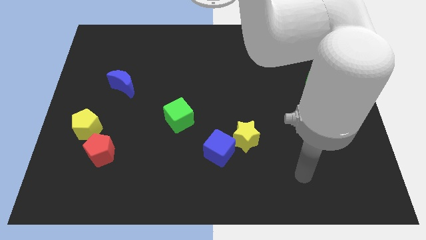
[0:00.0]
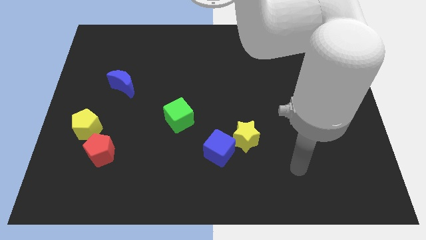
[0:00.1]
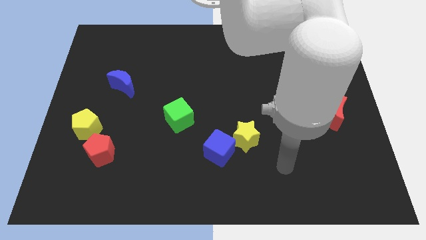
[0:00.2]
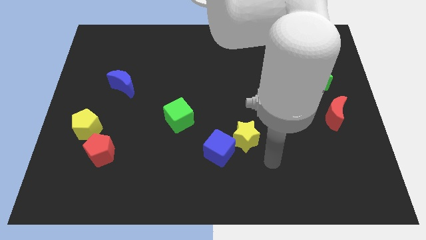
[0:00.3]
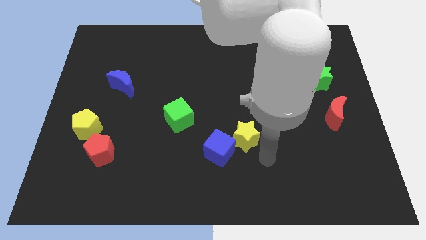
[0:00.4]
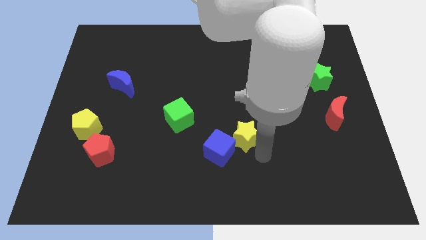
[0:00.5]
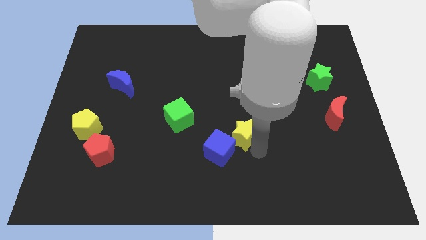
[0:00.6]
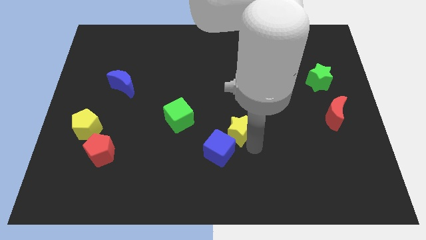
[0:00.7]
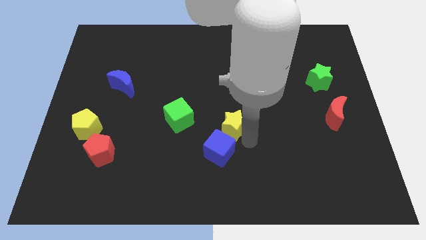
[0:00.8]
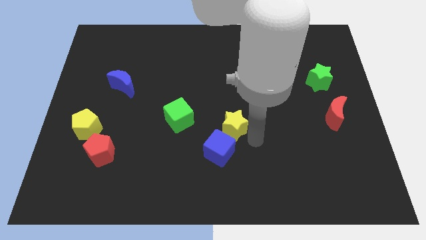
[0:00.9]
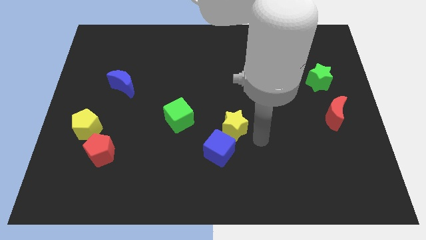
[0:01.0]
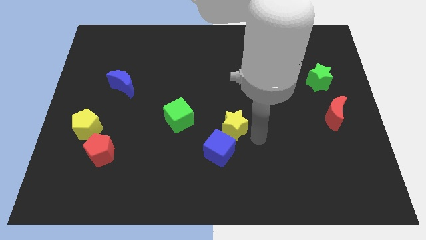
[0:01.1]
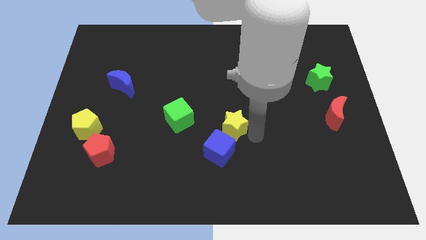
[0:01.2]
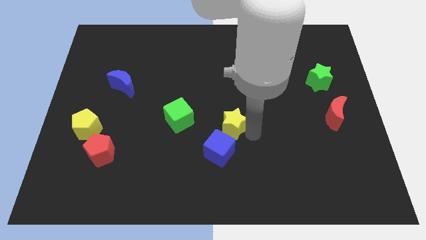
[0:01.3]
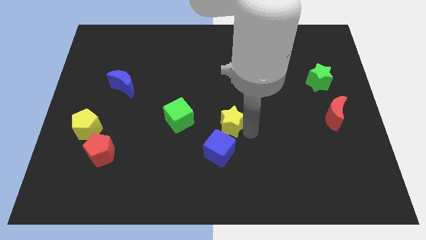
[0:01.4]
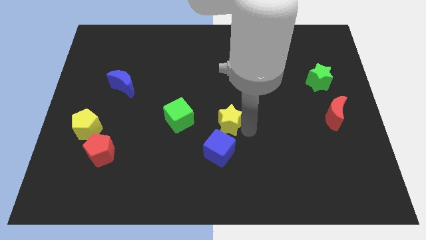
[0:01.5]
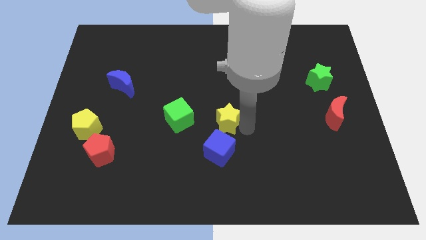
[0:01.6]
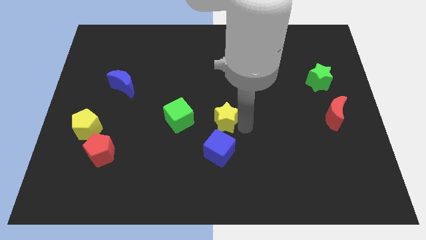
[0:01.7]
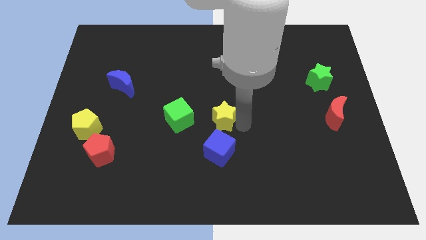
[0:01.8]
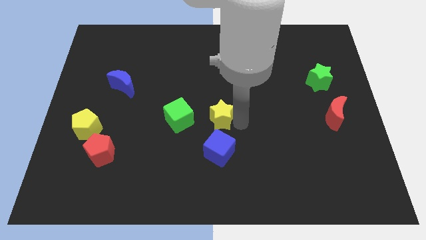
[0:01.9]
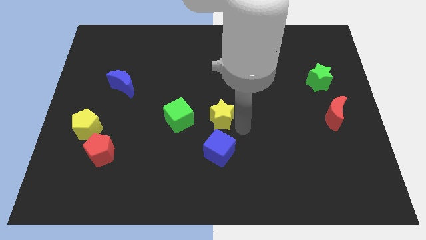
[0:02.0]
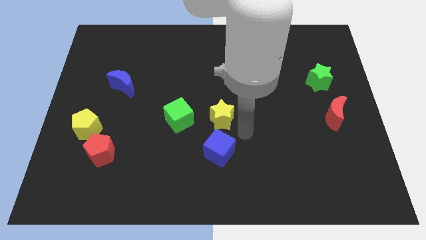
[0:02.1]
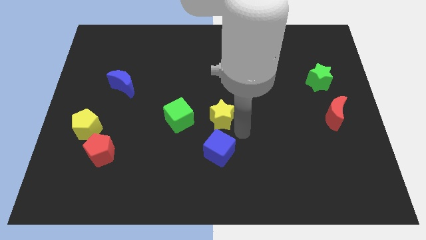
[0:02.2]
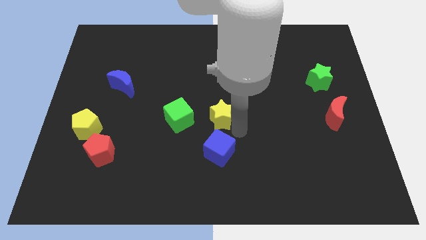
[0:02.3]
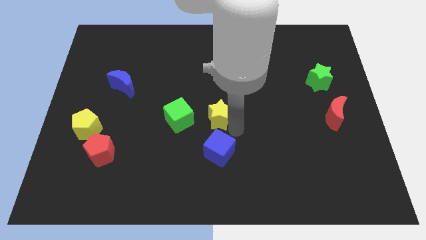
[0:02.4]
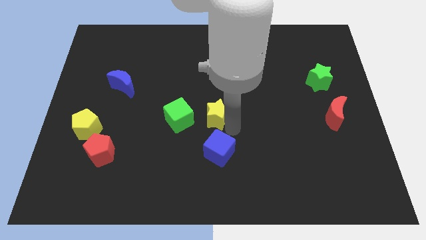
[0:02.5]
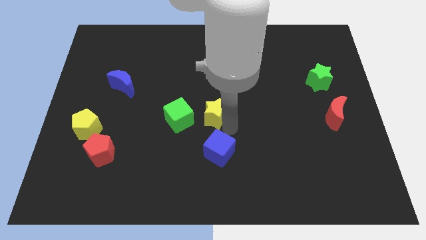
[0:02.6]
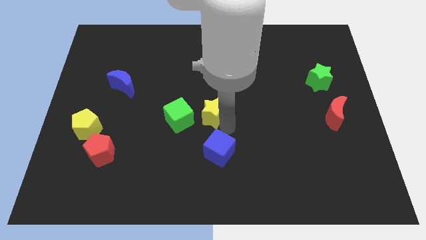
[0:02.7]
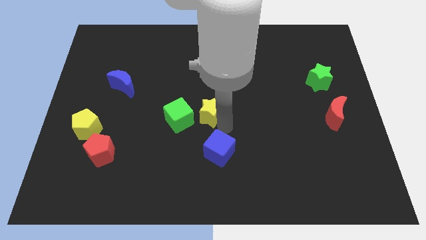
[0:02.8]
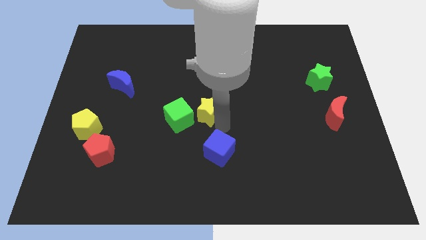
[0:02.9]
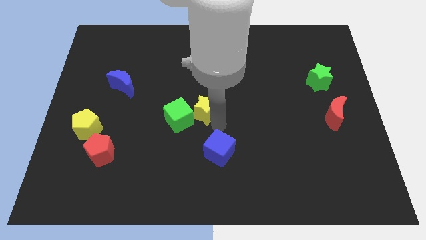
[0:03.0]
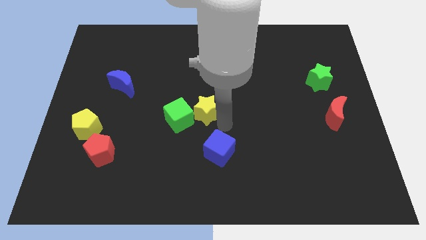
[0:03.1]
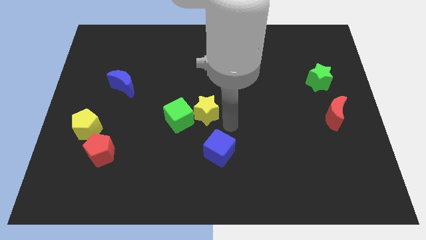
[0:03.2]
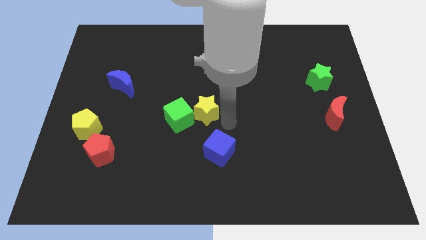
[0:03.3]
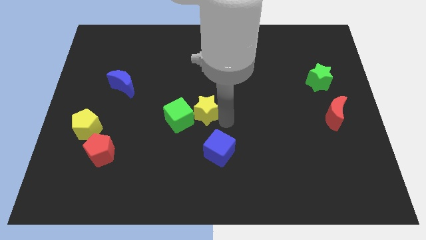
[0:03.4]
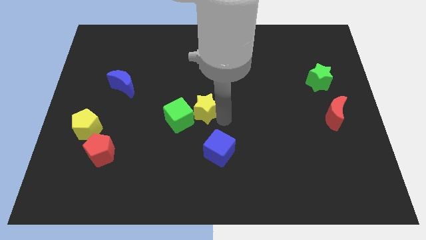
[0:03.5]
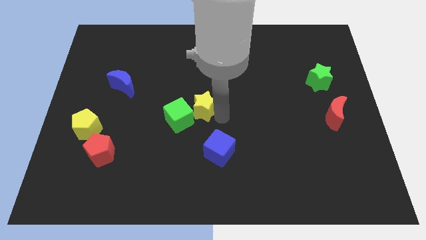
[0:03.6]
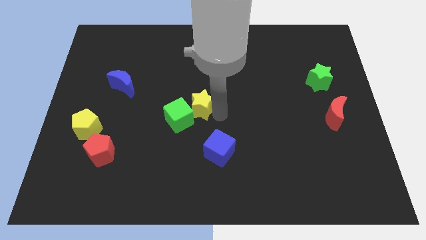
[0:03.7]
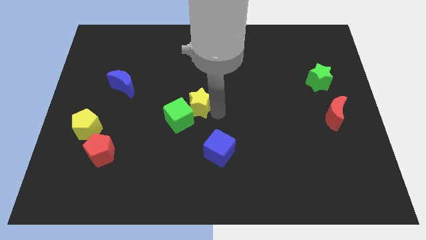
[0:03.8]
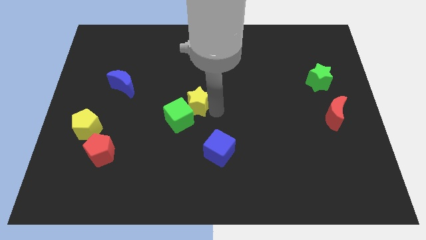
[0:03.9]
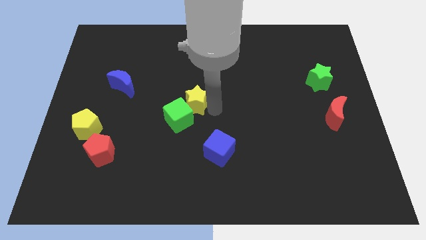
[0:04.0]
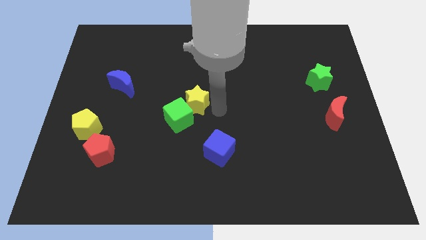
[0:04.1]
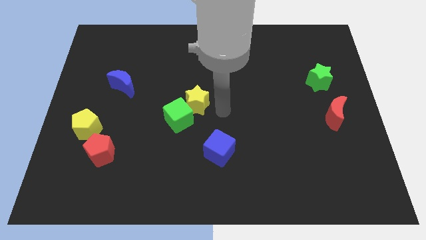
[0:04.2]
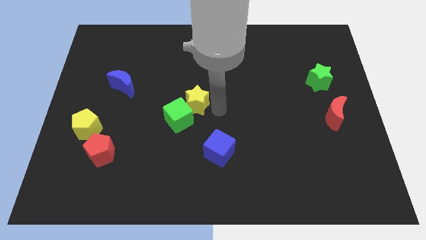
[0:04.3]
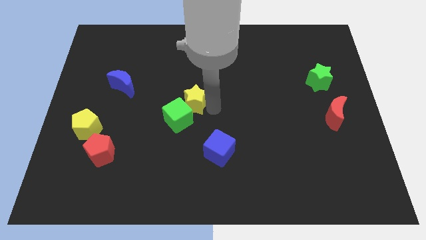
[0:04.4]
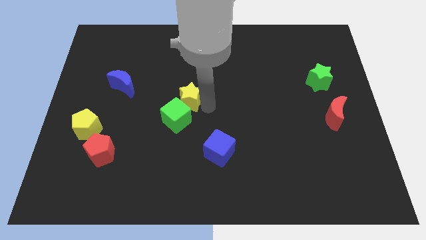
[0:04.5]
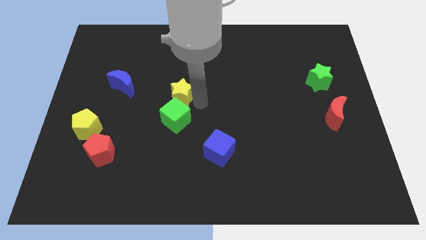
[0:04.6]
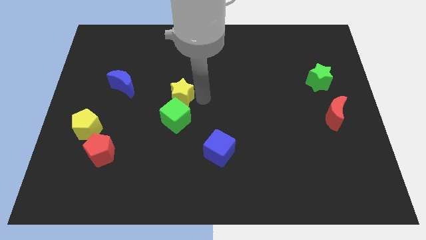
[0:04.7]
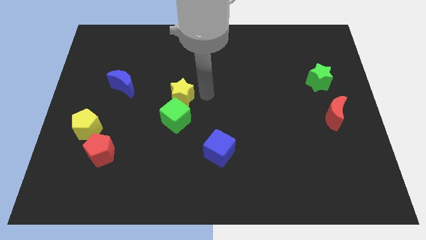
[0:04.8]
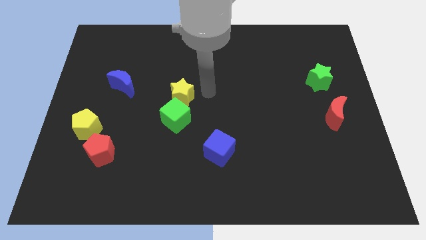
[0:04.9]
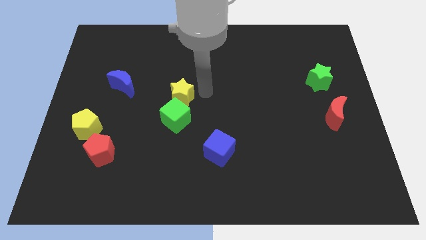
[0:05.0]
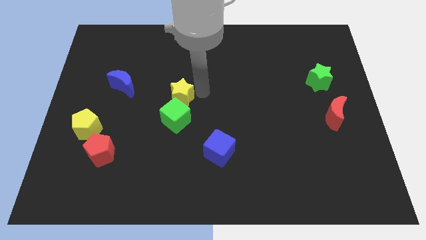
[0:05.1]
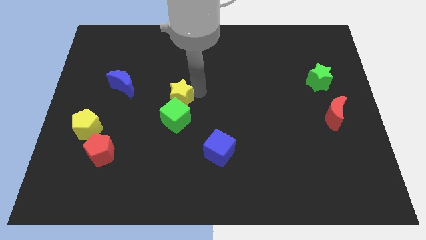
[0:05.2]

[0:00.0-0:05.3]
push the yellow star diagonally up and to the left of the green cube

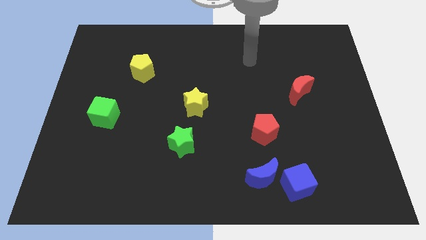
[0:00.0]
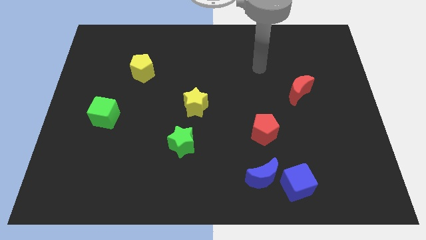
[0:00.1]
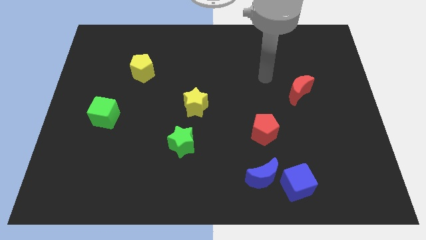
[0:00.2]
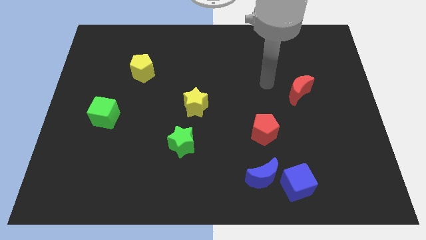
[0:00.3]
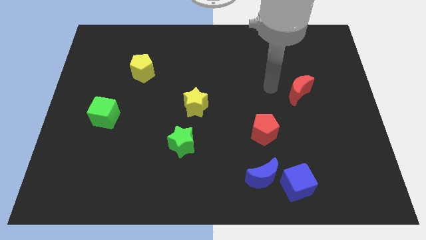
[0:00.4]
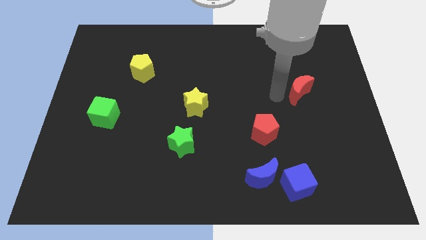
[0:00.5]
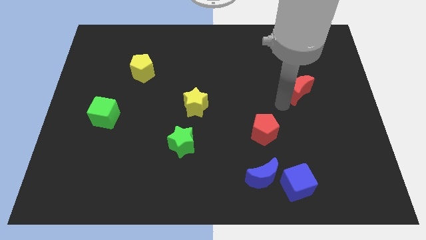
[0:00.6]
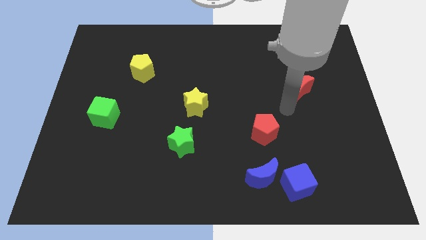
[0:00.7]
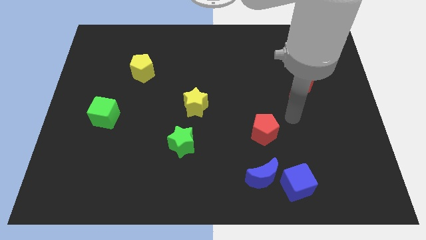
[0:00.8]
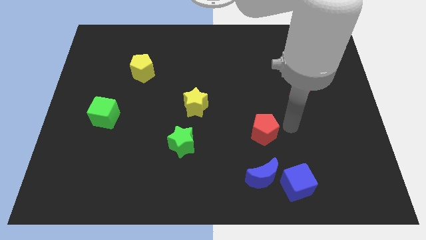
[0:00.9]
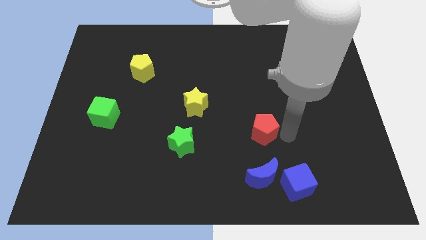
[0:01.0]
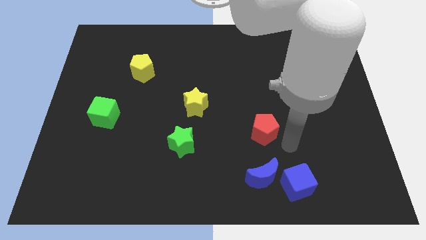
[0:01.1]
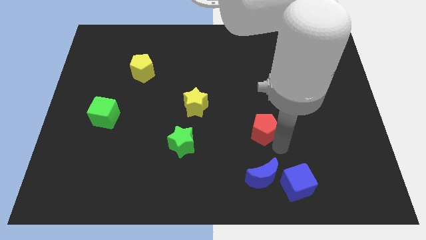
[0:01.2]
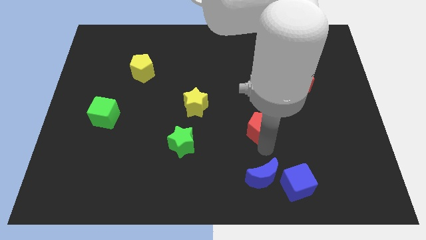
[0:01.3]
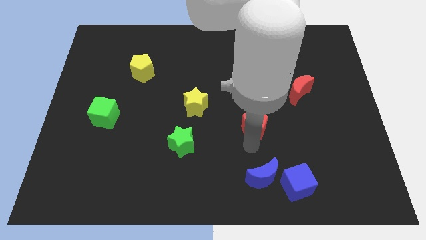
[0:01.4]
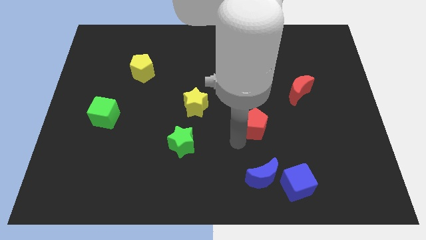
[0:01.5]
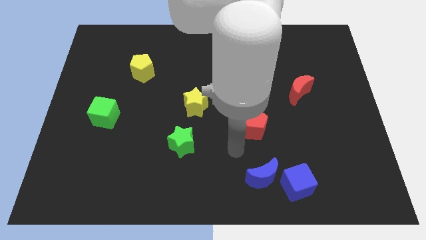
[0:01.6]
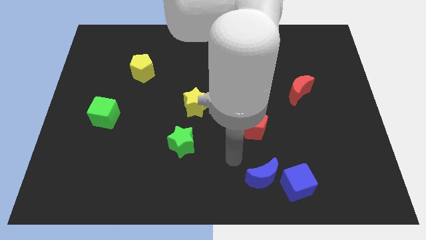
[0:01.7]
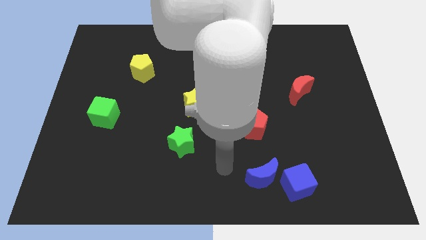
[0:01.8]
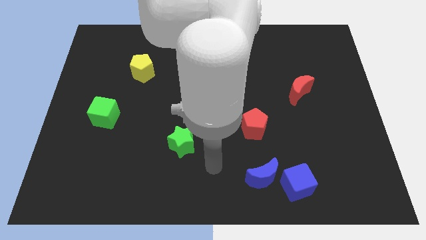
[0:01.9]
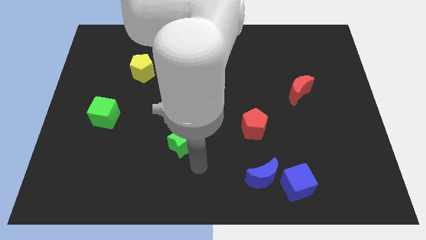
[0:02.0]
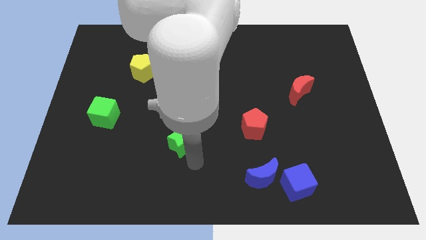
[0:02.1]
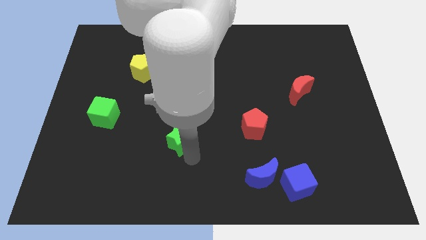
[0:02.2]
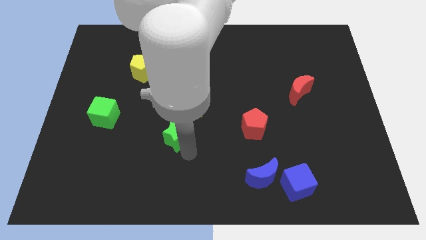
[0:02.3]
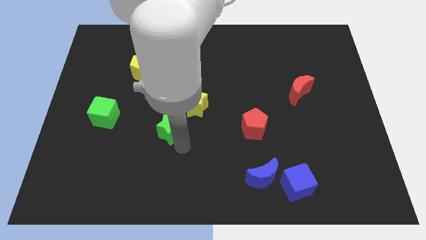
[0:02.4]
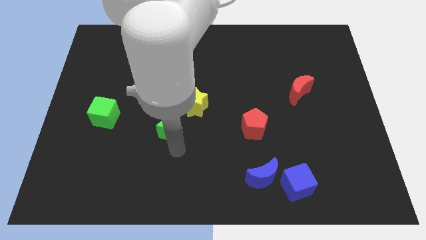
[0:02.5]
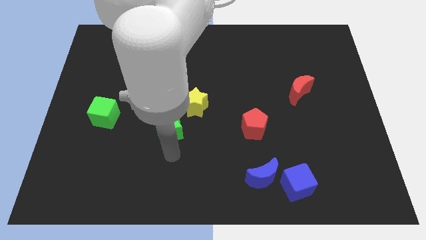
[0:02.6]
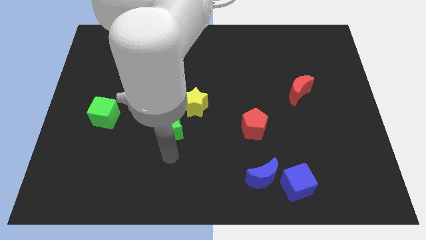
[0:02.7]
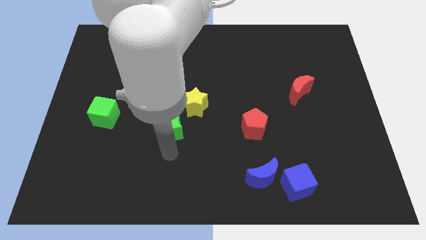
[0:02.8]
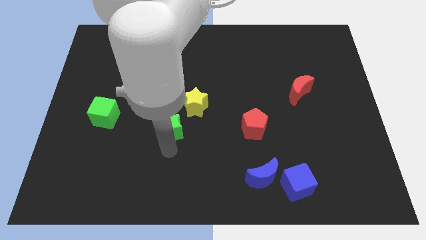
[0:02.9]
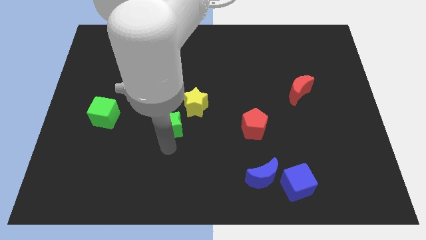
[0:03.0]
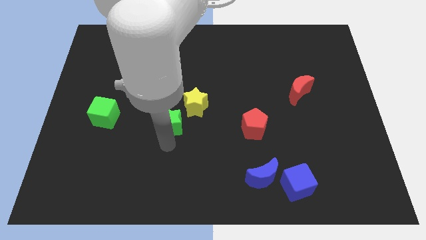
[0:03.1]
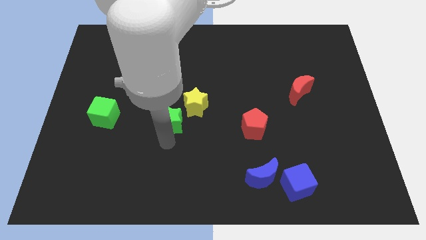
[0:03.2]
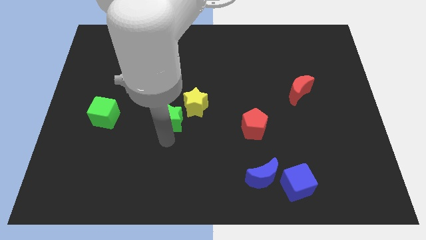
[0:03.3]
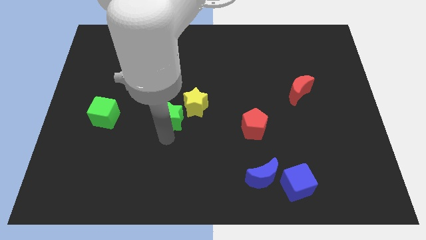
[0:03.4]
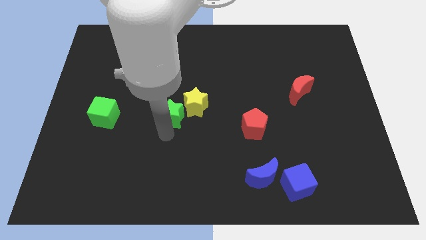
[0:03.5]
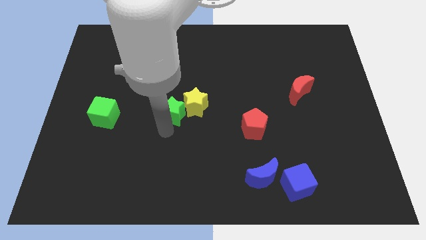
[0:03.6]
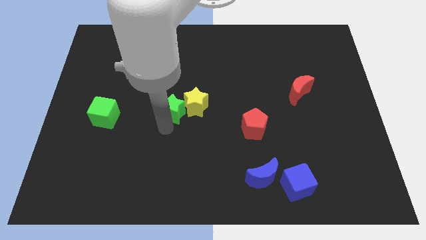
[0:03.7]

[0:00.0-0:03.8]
move the green star to the top left side of the yellow star
